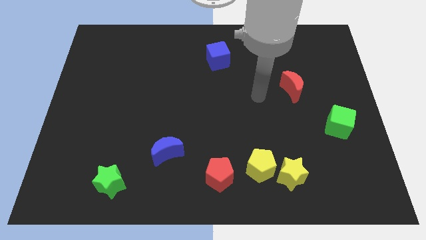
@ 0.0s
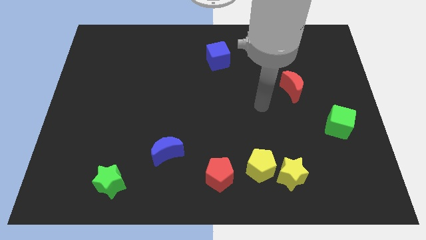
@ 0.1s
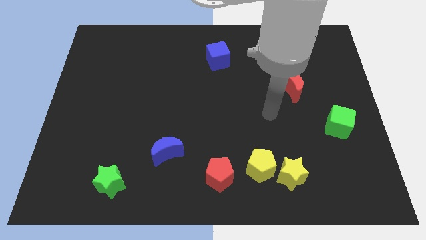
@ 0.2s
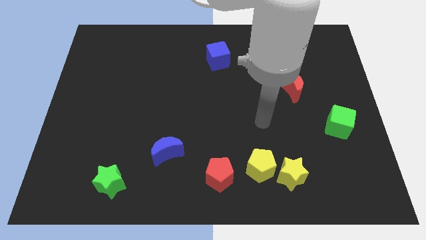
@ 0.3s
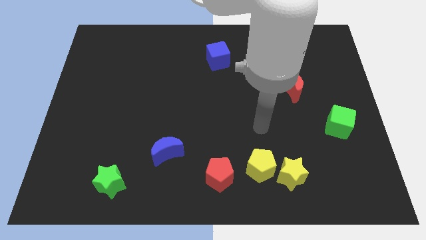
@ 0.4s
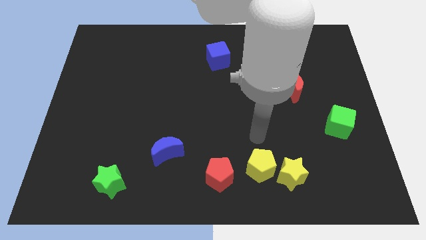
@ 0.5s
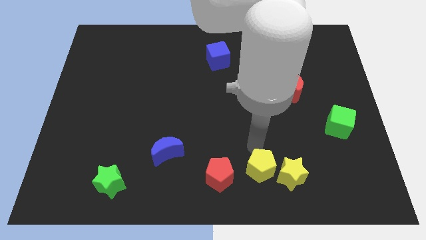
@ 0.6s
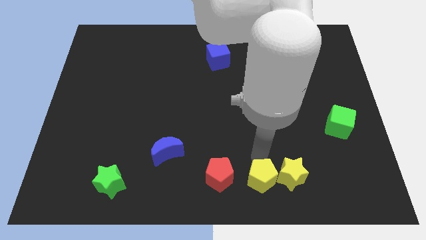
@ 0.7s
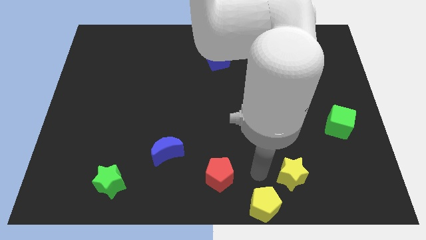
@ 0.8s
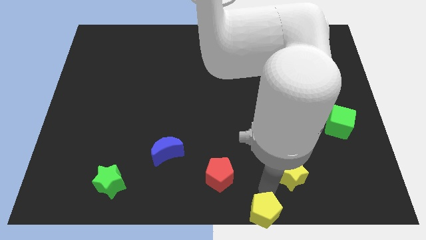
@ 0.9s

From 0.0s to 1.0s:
pull the yellow star apart from the yellow pentagon

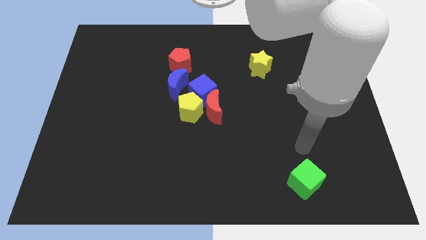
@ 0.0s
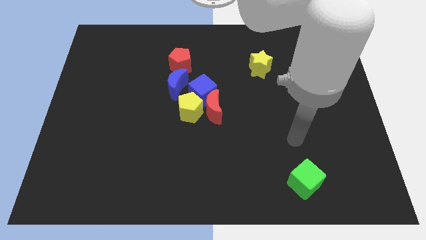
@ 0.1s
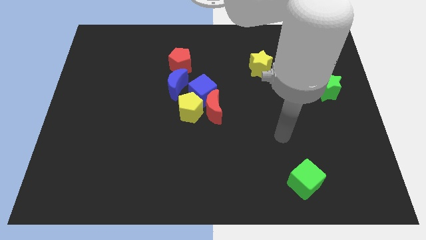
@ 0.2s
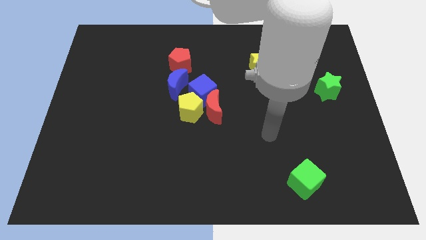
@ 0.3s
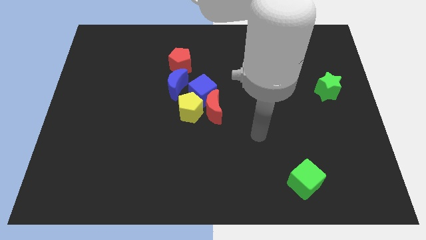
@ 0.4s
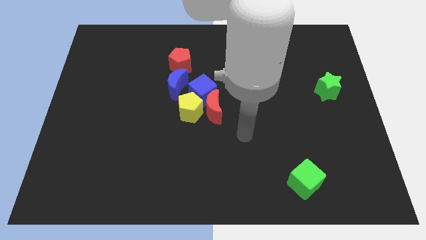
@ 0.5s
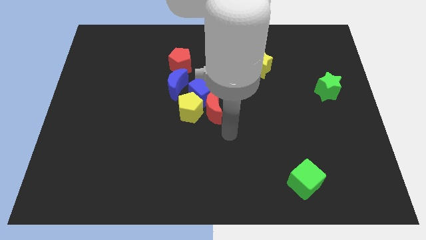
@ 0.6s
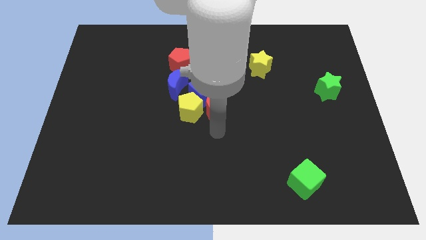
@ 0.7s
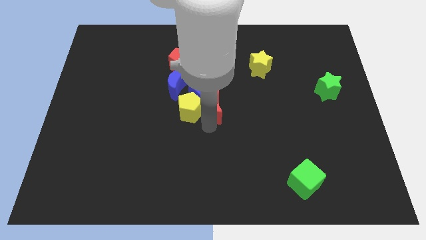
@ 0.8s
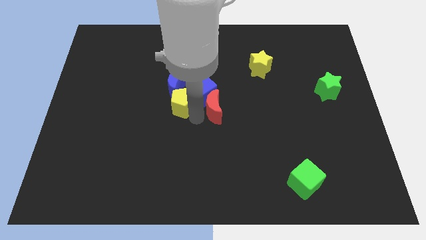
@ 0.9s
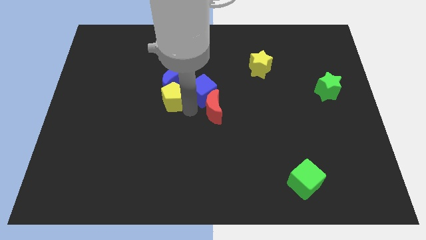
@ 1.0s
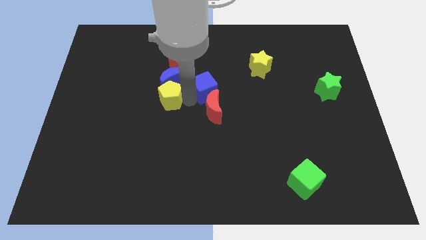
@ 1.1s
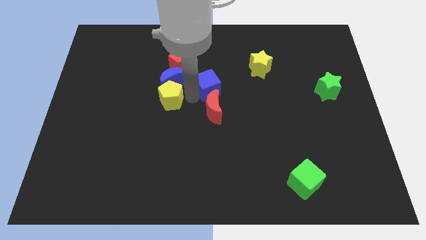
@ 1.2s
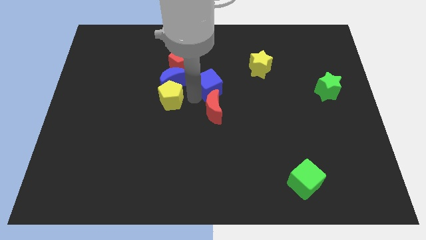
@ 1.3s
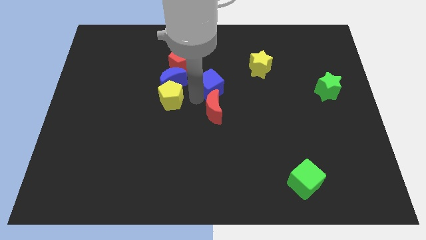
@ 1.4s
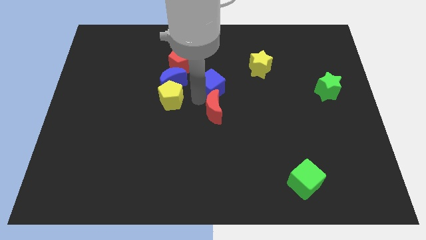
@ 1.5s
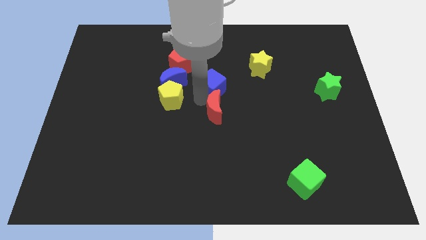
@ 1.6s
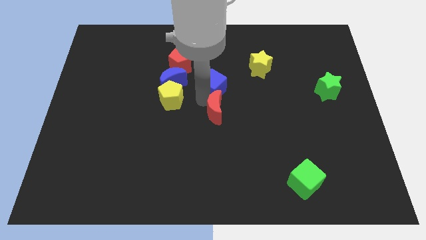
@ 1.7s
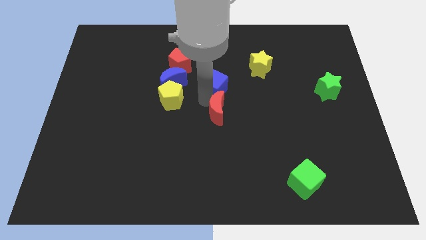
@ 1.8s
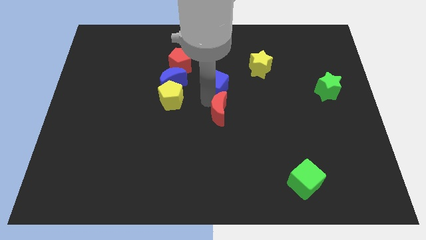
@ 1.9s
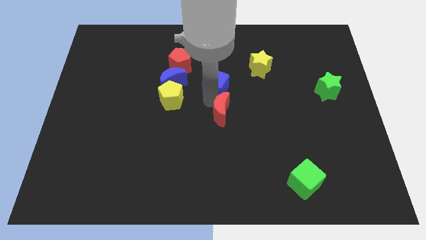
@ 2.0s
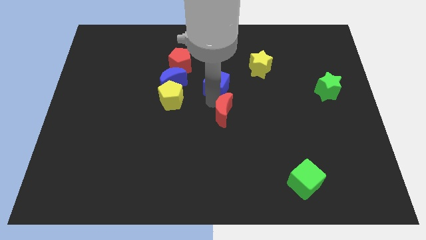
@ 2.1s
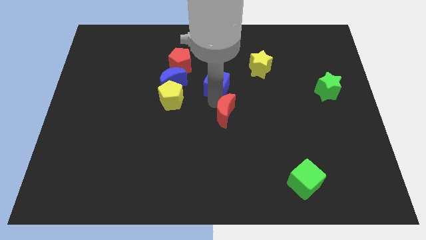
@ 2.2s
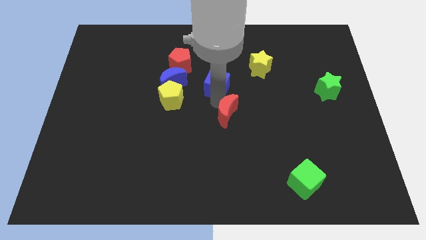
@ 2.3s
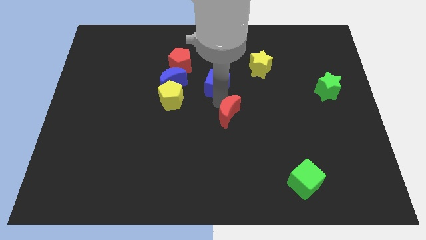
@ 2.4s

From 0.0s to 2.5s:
separate the red moon from the yellow pentagon and blue cube

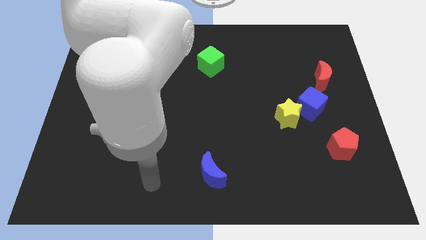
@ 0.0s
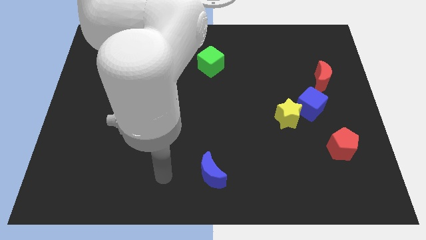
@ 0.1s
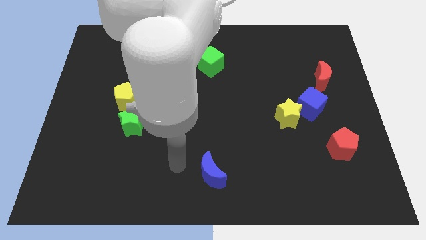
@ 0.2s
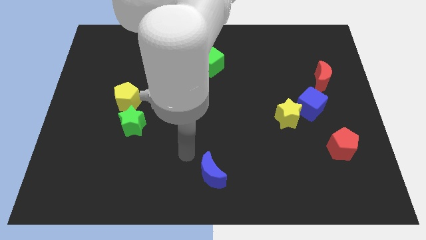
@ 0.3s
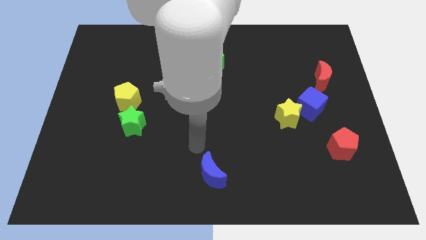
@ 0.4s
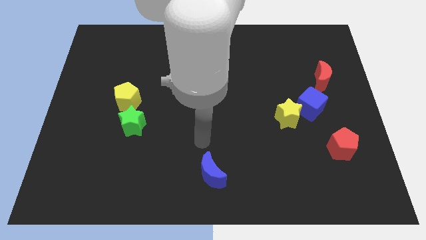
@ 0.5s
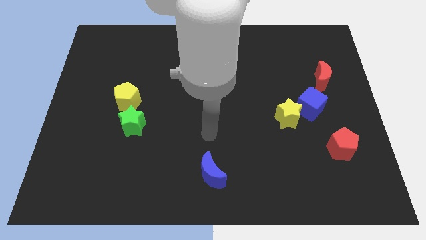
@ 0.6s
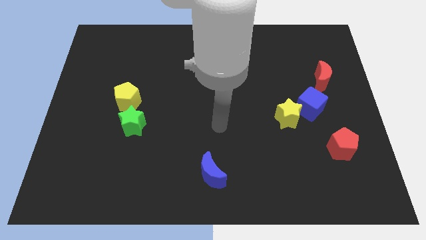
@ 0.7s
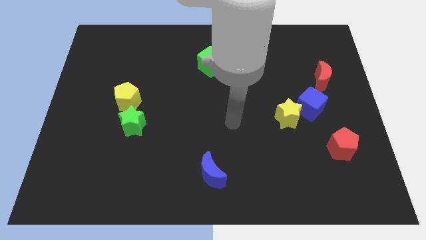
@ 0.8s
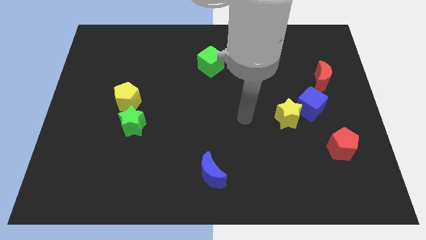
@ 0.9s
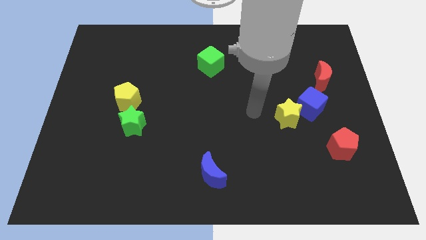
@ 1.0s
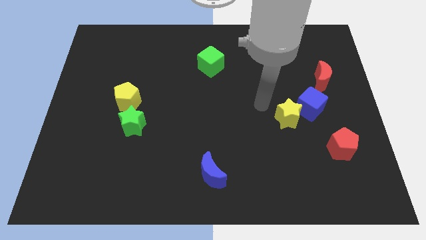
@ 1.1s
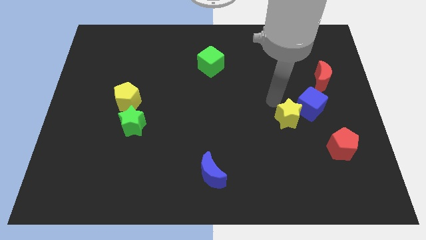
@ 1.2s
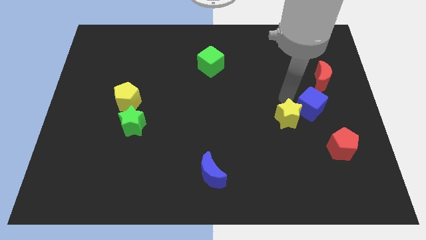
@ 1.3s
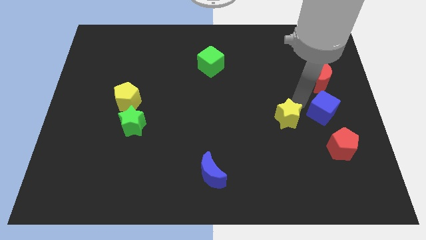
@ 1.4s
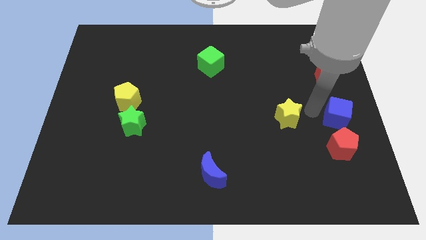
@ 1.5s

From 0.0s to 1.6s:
separate the yellow star from the blue cube

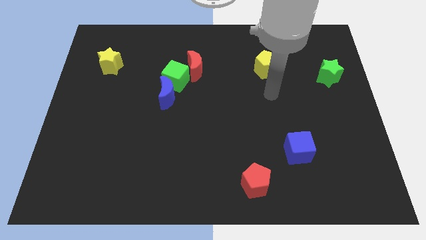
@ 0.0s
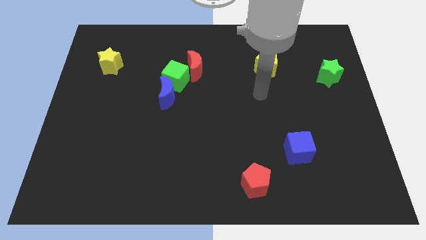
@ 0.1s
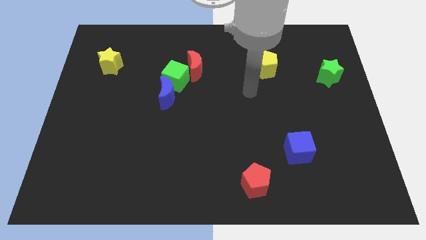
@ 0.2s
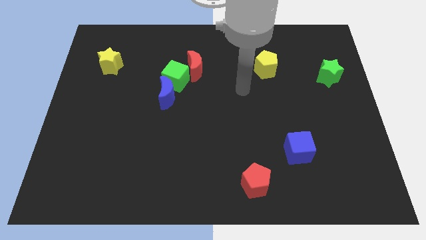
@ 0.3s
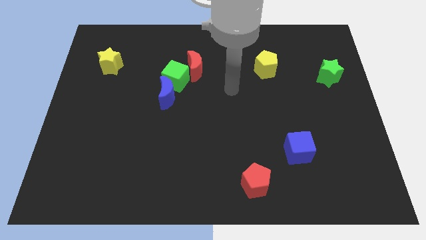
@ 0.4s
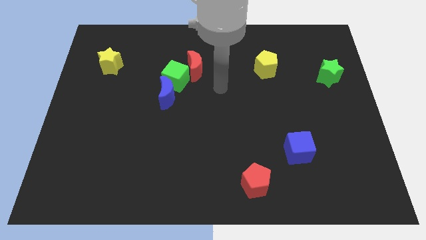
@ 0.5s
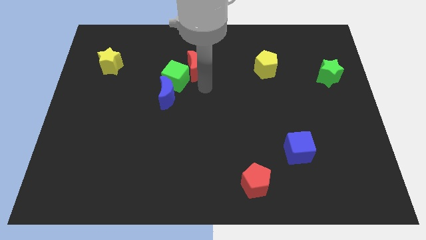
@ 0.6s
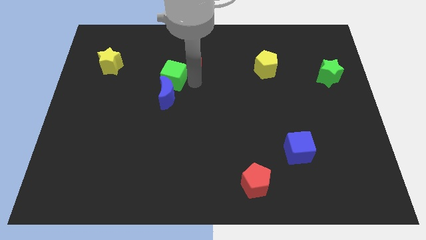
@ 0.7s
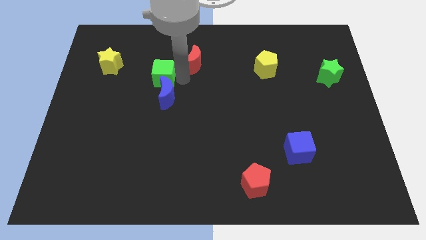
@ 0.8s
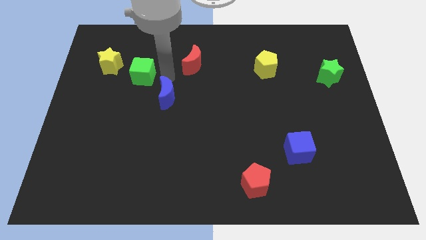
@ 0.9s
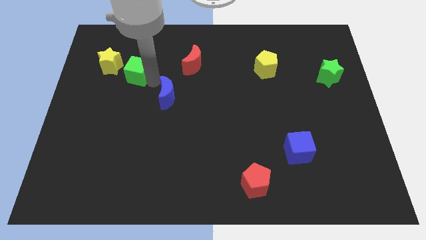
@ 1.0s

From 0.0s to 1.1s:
pull the blue moon apart from the green cube

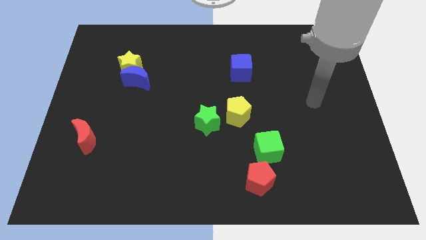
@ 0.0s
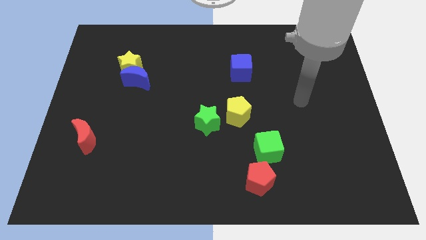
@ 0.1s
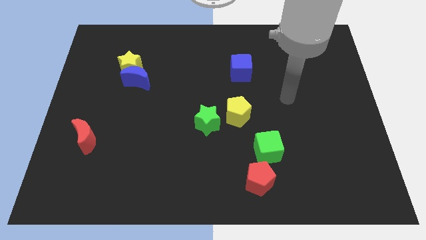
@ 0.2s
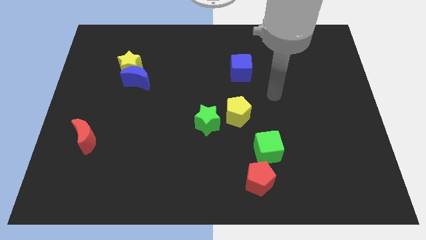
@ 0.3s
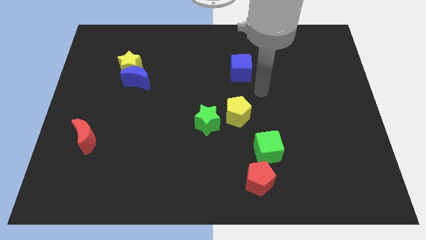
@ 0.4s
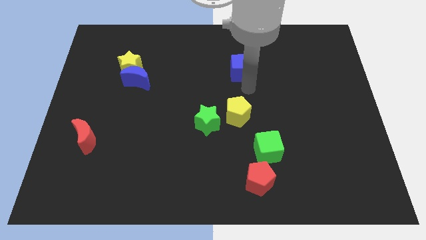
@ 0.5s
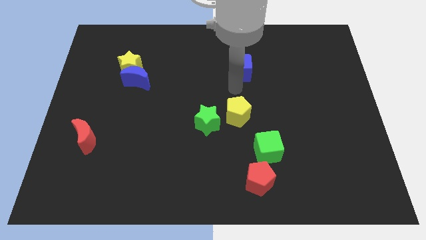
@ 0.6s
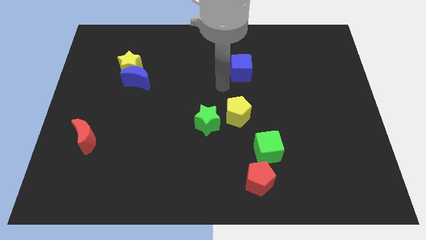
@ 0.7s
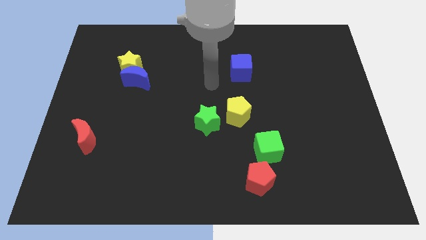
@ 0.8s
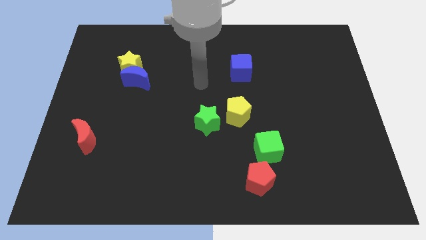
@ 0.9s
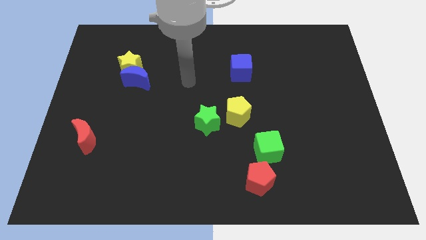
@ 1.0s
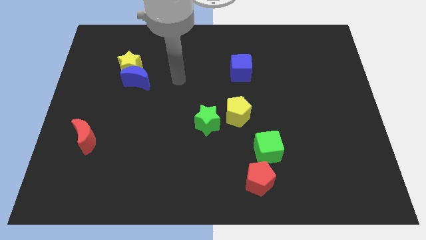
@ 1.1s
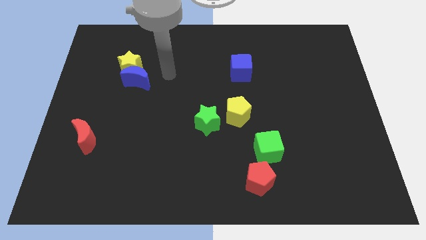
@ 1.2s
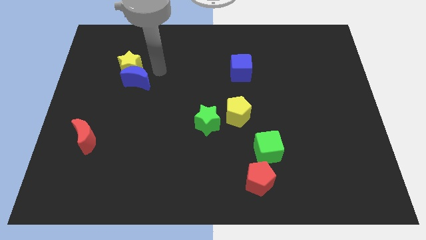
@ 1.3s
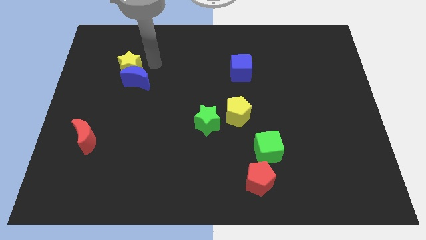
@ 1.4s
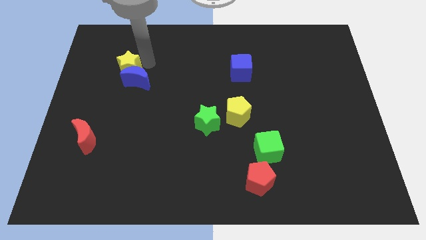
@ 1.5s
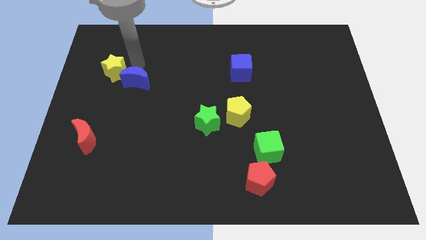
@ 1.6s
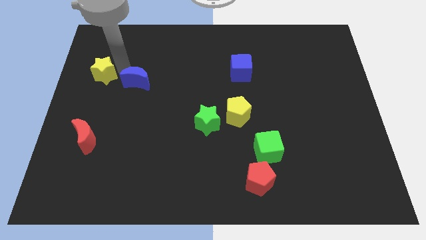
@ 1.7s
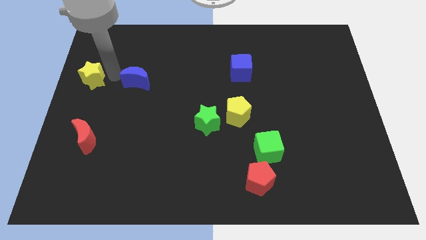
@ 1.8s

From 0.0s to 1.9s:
move the blue moon away from the yellow star

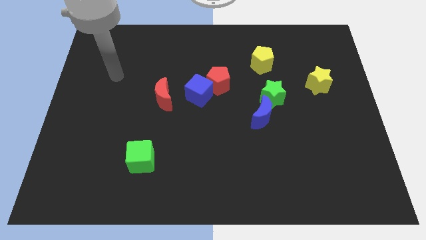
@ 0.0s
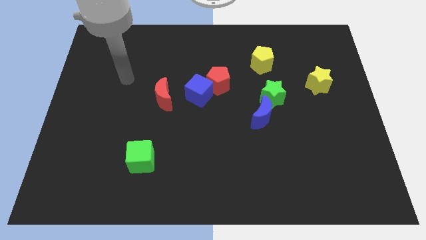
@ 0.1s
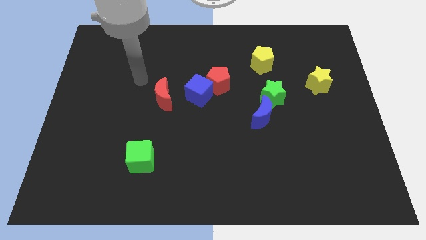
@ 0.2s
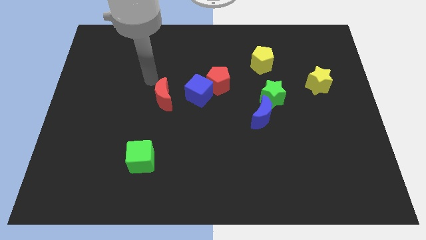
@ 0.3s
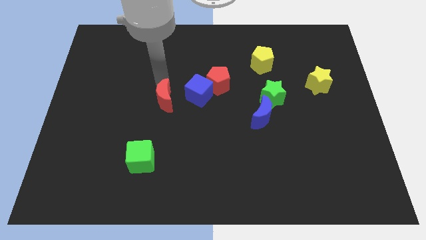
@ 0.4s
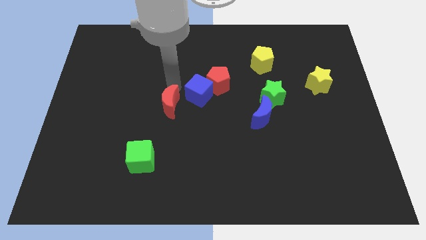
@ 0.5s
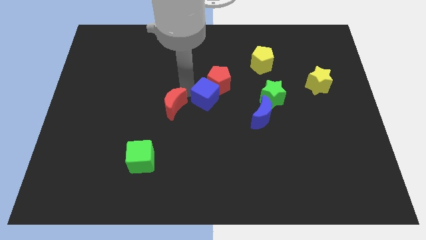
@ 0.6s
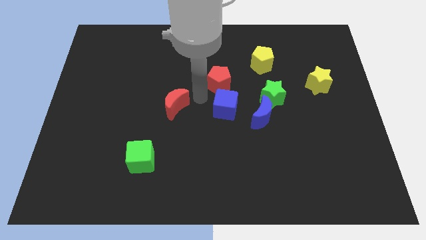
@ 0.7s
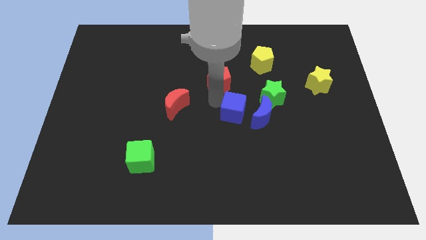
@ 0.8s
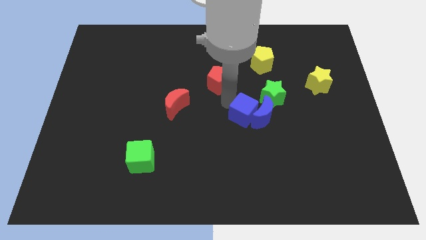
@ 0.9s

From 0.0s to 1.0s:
separate the red pentagon from the blue cube

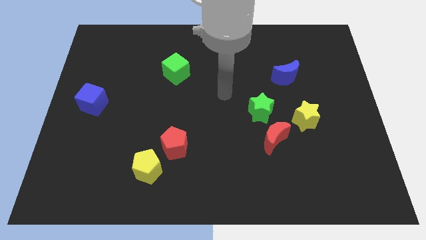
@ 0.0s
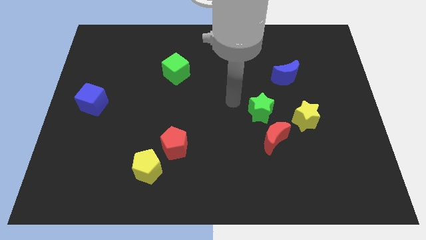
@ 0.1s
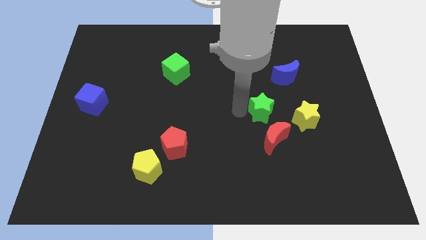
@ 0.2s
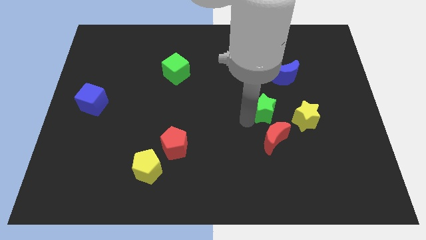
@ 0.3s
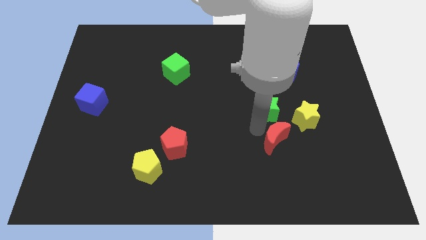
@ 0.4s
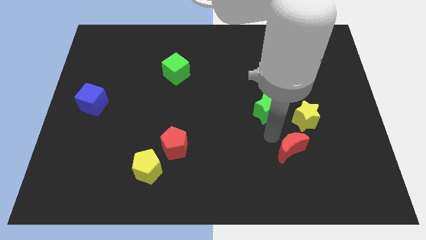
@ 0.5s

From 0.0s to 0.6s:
pull the green star apart from the red moon
